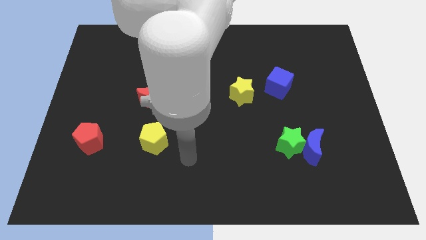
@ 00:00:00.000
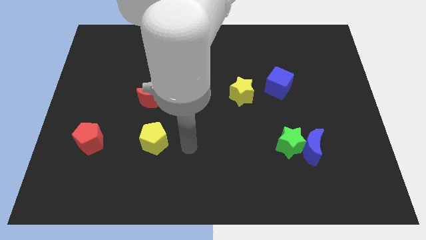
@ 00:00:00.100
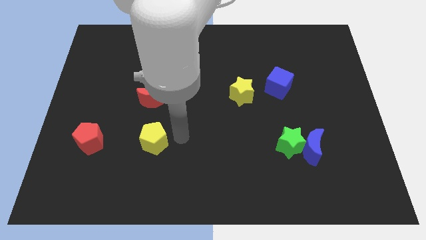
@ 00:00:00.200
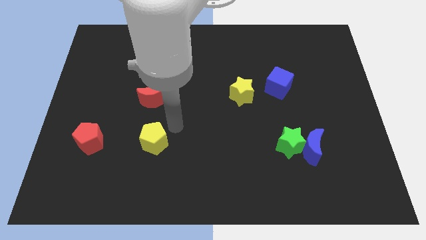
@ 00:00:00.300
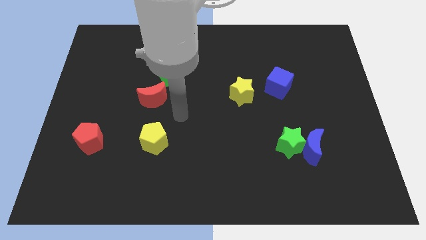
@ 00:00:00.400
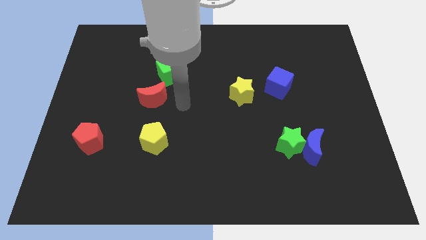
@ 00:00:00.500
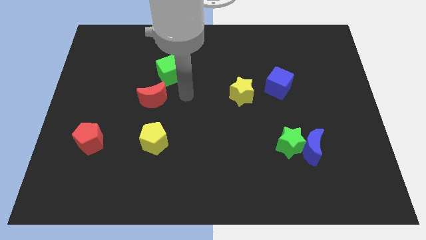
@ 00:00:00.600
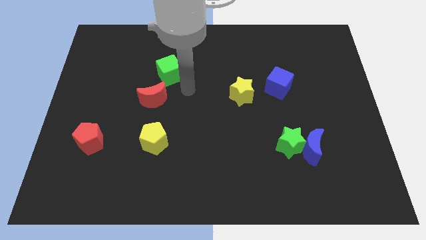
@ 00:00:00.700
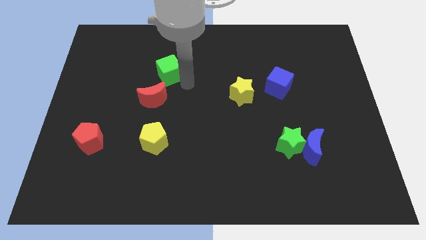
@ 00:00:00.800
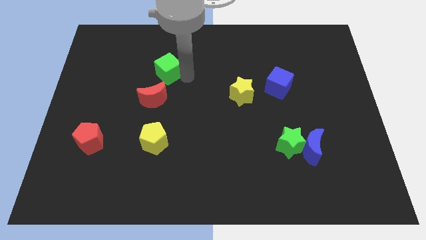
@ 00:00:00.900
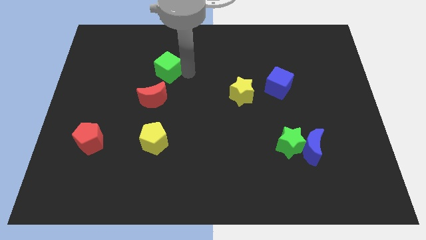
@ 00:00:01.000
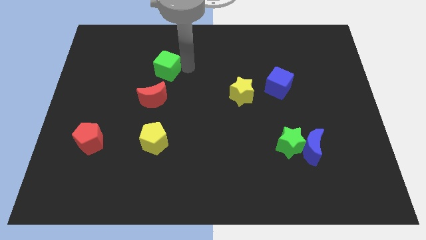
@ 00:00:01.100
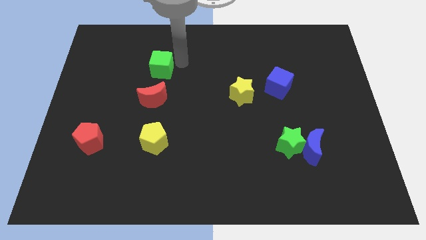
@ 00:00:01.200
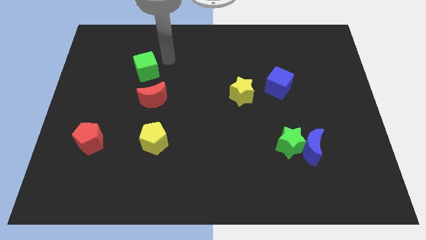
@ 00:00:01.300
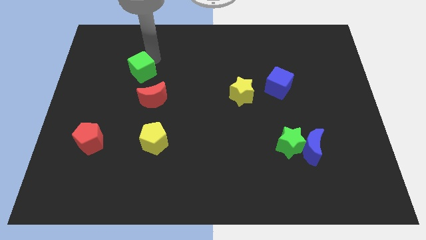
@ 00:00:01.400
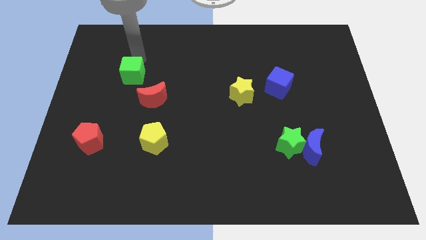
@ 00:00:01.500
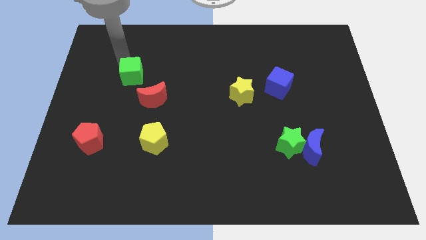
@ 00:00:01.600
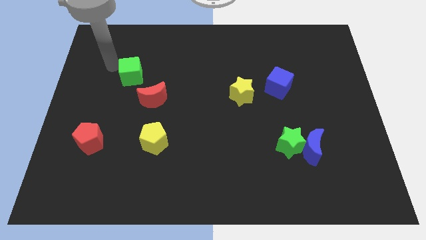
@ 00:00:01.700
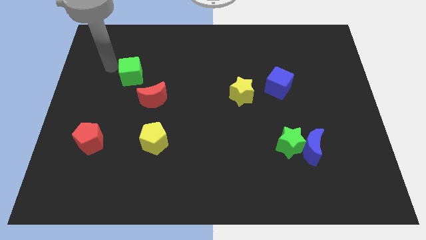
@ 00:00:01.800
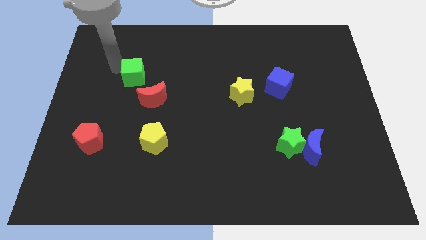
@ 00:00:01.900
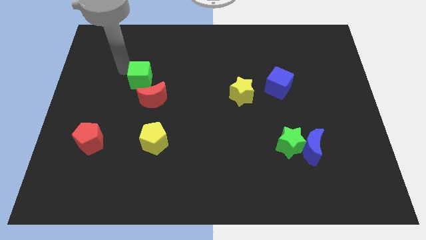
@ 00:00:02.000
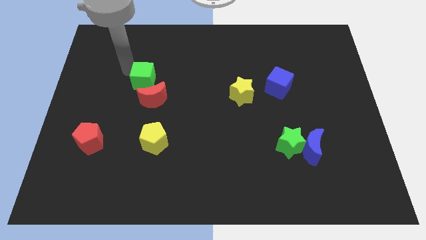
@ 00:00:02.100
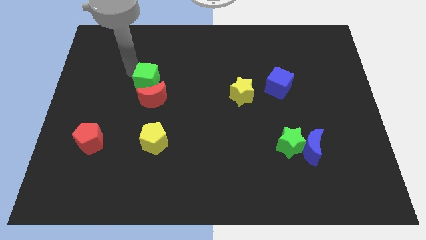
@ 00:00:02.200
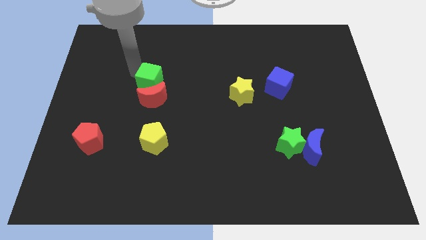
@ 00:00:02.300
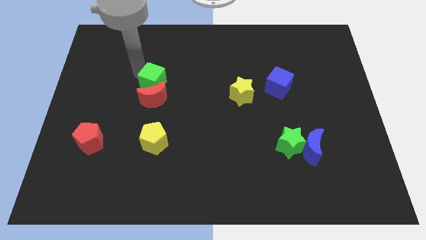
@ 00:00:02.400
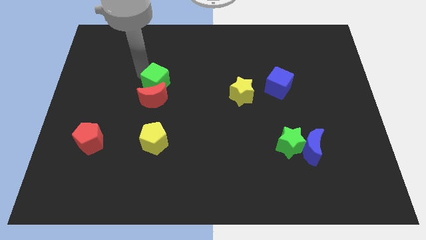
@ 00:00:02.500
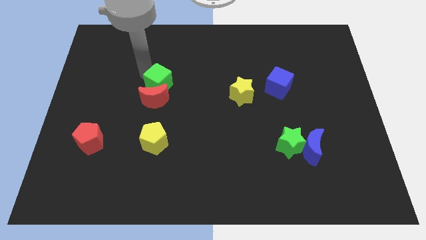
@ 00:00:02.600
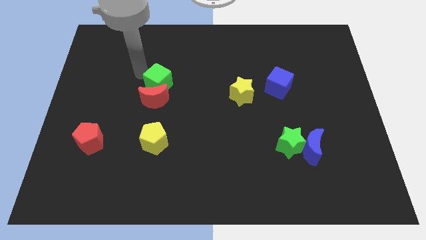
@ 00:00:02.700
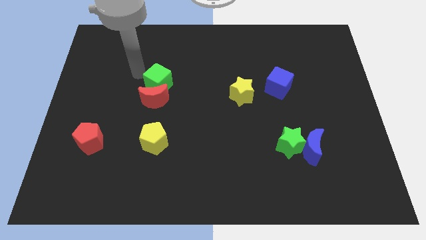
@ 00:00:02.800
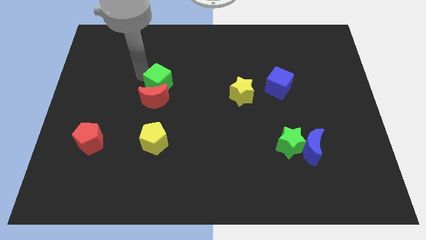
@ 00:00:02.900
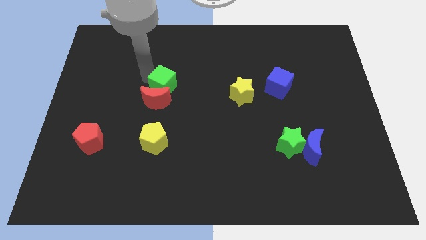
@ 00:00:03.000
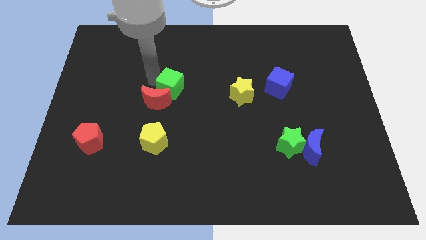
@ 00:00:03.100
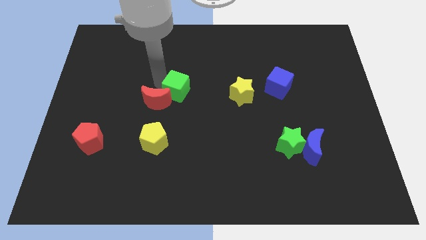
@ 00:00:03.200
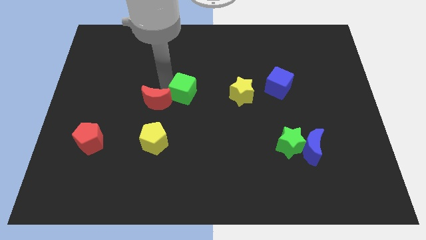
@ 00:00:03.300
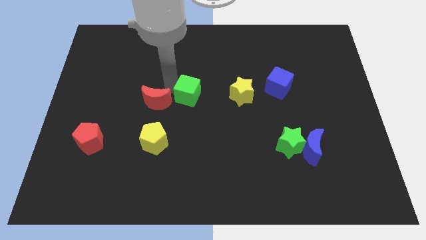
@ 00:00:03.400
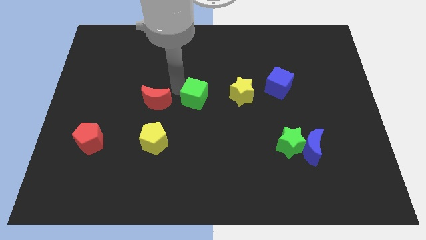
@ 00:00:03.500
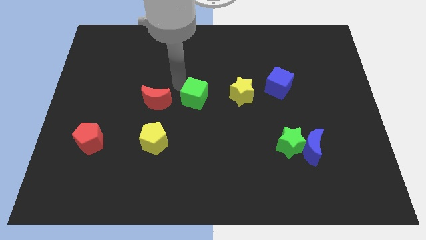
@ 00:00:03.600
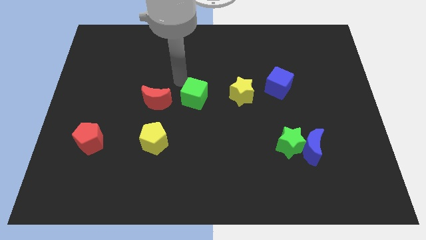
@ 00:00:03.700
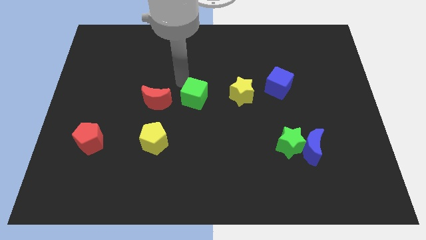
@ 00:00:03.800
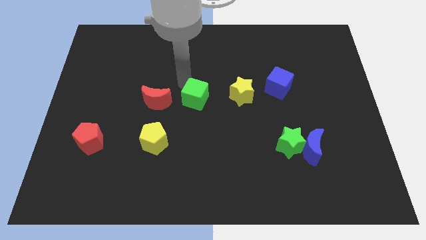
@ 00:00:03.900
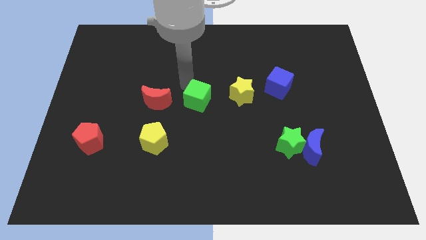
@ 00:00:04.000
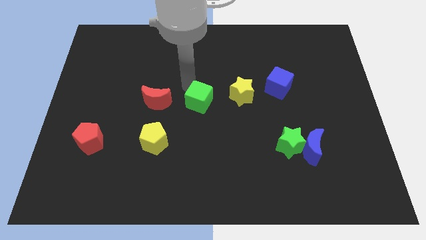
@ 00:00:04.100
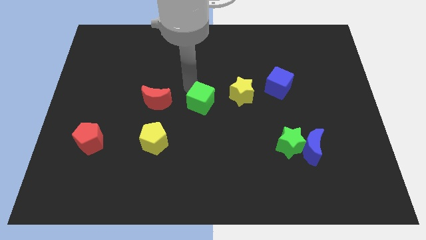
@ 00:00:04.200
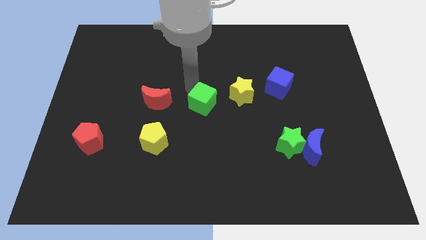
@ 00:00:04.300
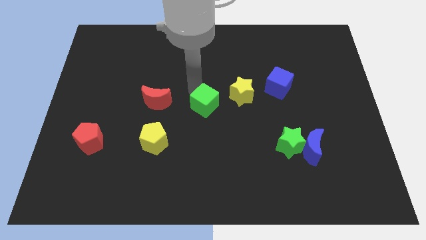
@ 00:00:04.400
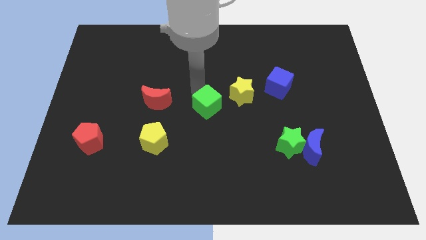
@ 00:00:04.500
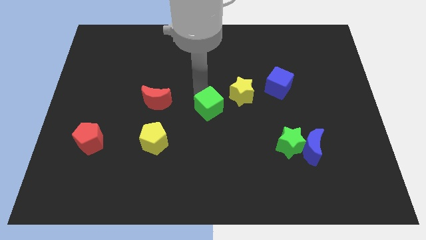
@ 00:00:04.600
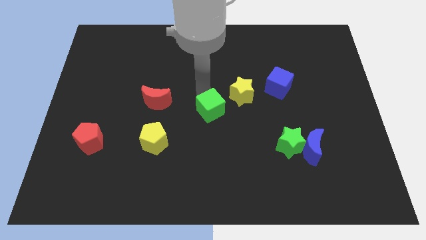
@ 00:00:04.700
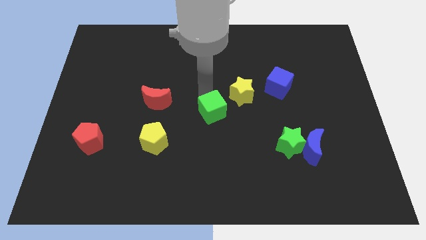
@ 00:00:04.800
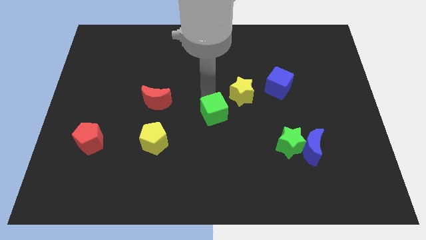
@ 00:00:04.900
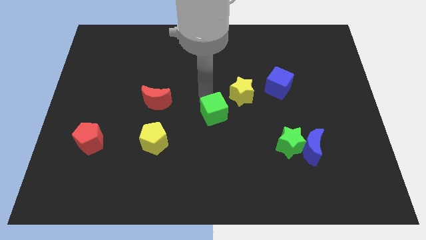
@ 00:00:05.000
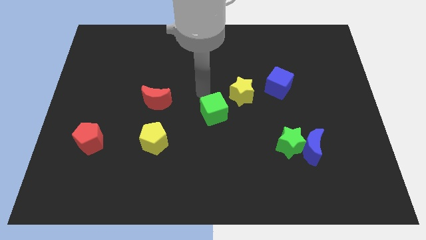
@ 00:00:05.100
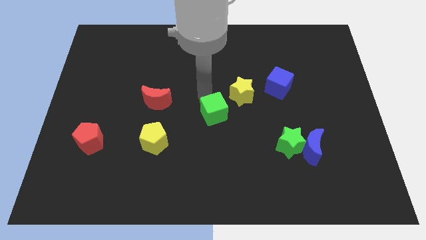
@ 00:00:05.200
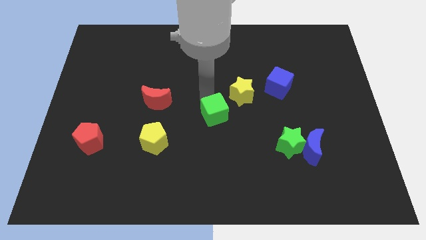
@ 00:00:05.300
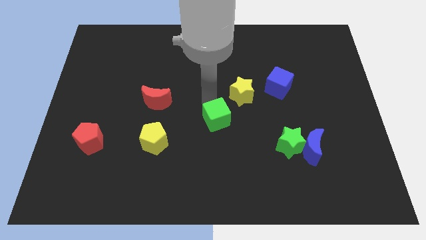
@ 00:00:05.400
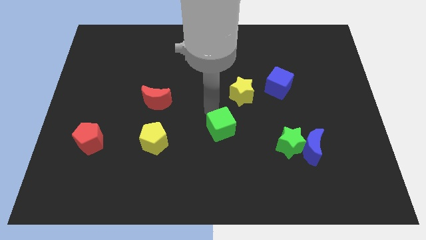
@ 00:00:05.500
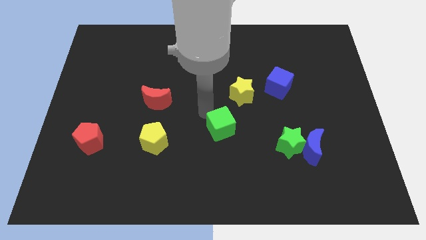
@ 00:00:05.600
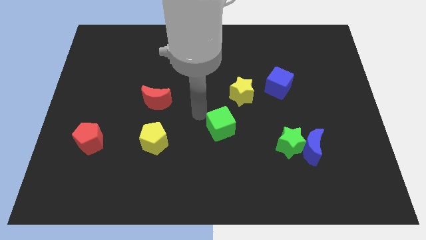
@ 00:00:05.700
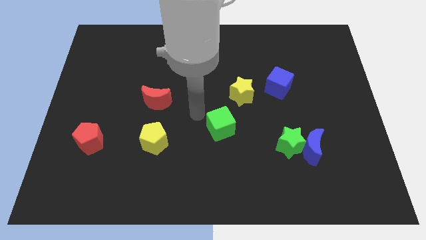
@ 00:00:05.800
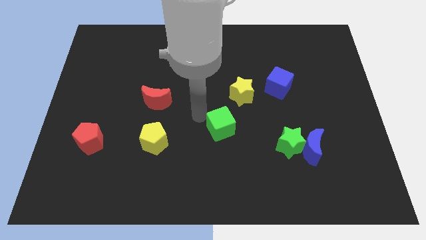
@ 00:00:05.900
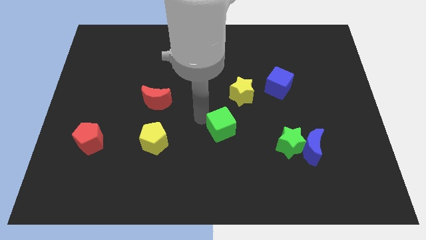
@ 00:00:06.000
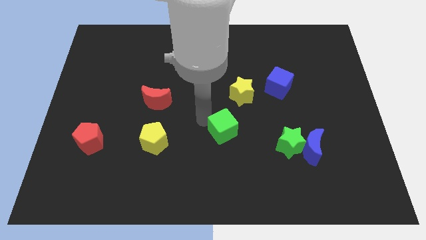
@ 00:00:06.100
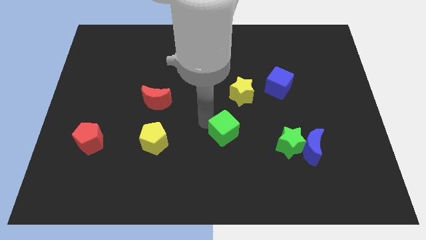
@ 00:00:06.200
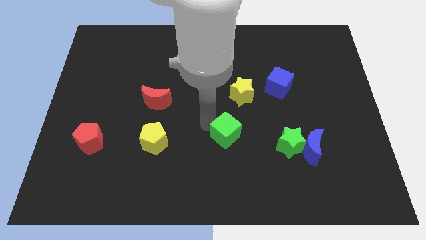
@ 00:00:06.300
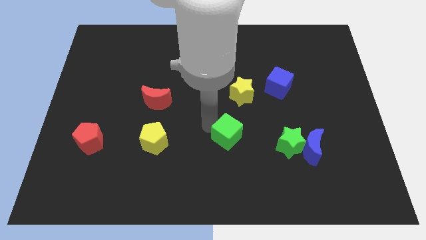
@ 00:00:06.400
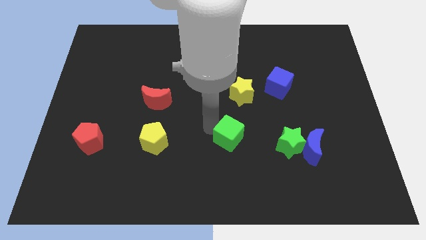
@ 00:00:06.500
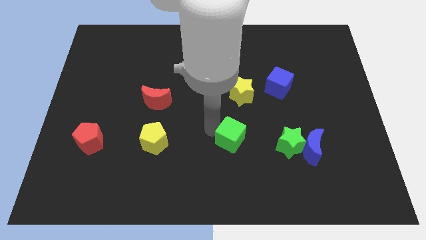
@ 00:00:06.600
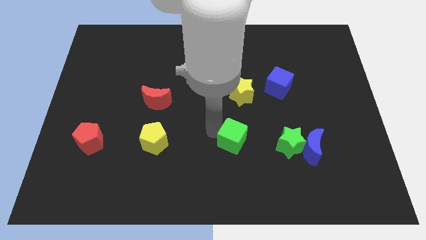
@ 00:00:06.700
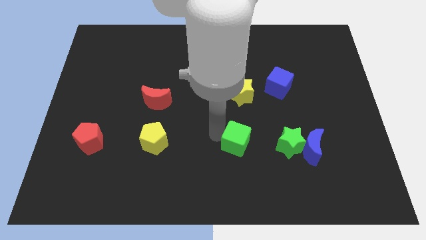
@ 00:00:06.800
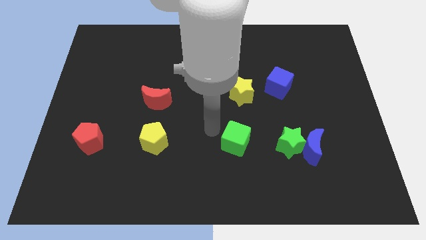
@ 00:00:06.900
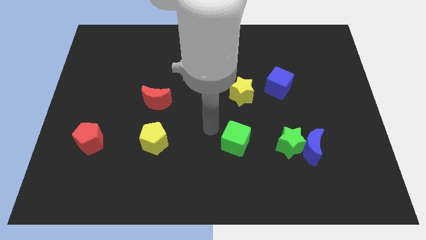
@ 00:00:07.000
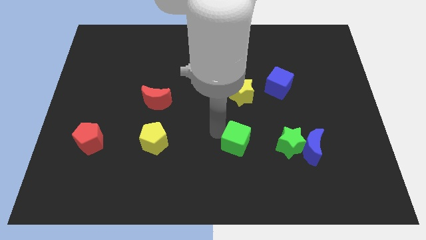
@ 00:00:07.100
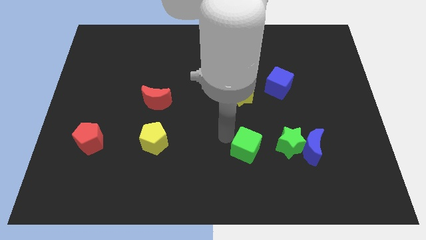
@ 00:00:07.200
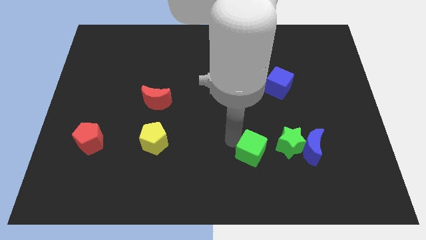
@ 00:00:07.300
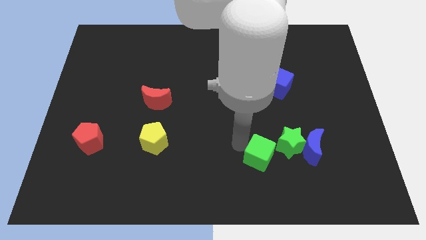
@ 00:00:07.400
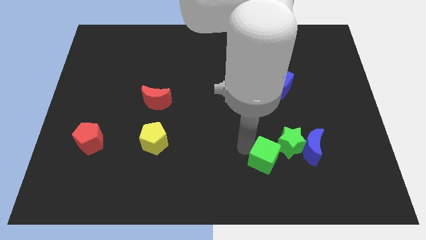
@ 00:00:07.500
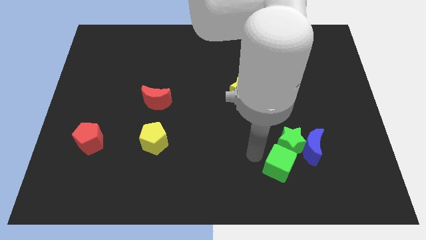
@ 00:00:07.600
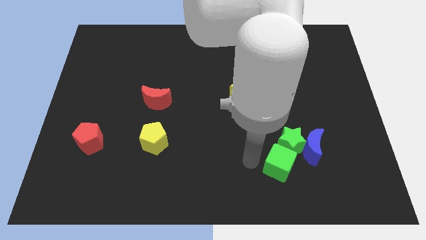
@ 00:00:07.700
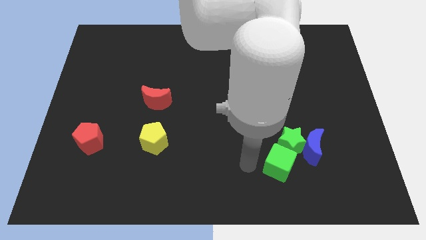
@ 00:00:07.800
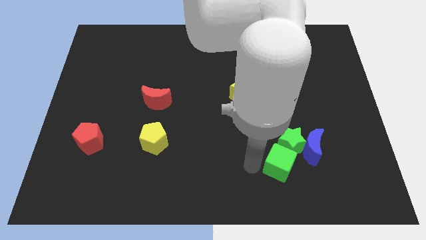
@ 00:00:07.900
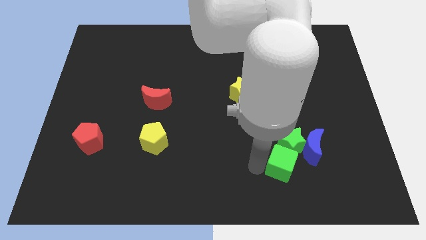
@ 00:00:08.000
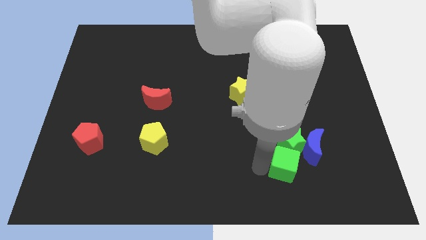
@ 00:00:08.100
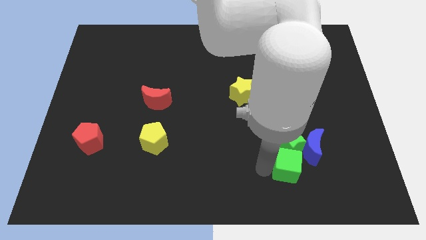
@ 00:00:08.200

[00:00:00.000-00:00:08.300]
move the green cube to the bottom right of the green star
